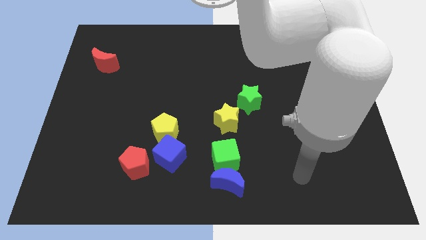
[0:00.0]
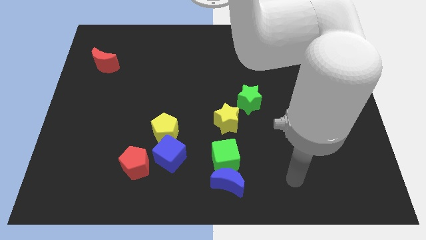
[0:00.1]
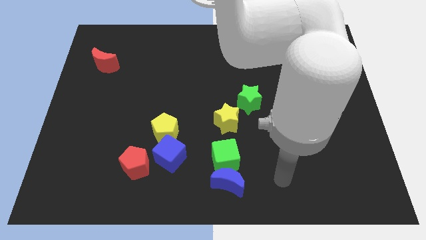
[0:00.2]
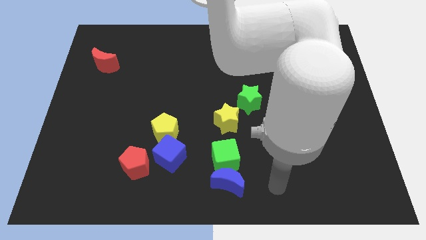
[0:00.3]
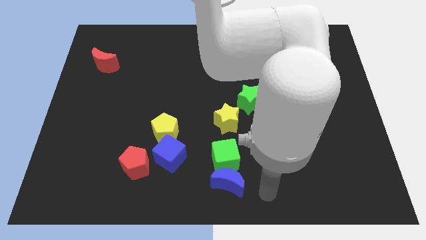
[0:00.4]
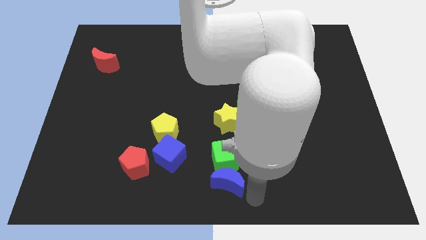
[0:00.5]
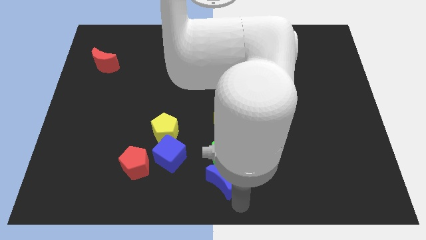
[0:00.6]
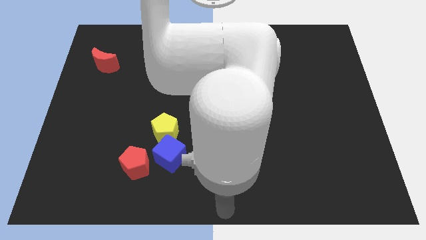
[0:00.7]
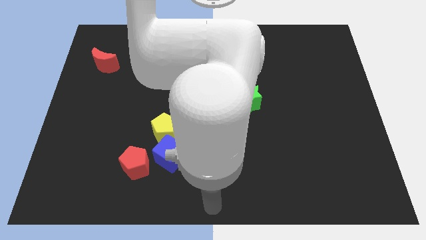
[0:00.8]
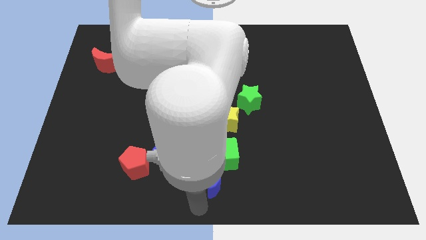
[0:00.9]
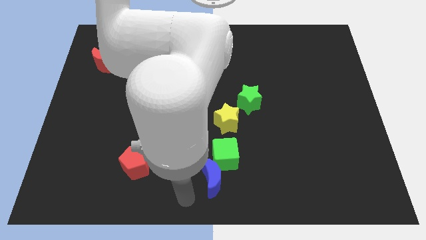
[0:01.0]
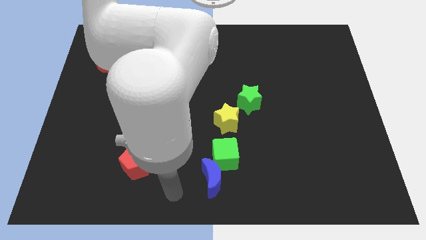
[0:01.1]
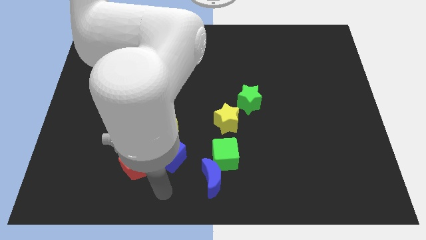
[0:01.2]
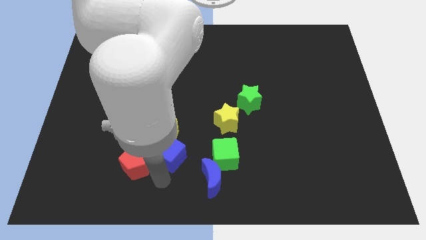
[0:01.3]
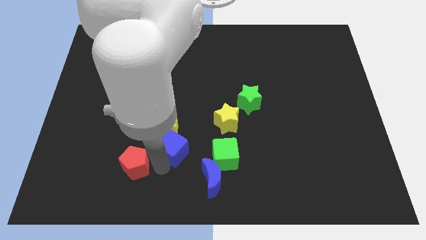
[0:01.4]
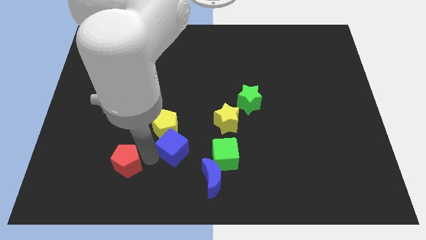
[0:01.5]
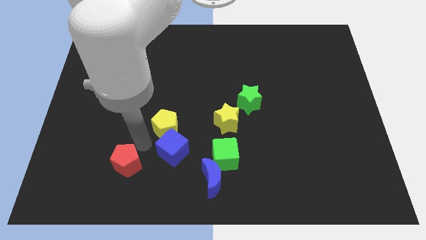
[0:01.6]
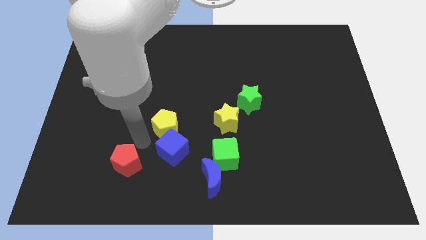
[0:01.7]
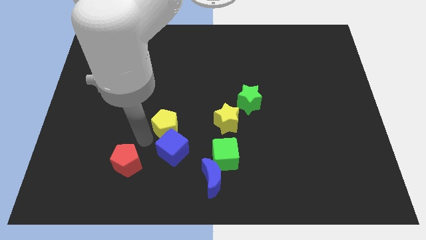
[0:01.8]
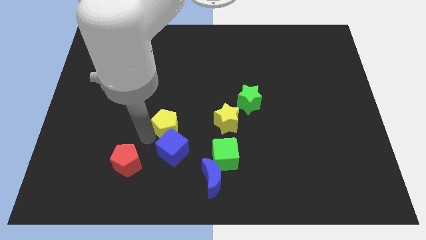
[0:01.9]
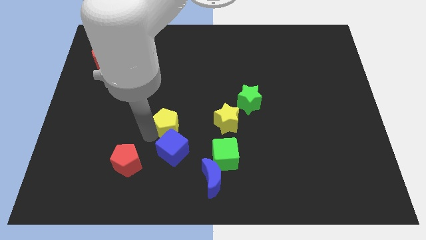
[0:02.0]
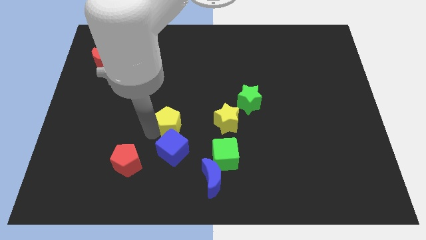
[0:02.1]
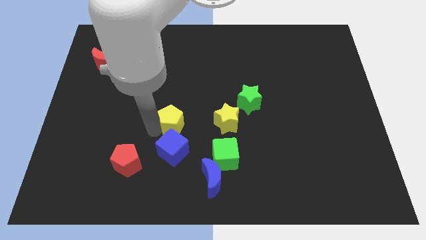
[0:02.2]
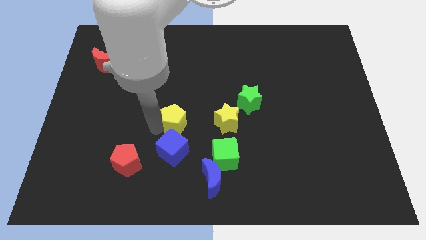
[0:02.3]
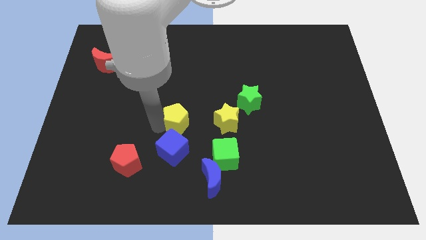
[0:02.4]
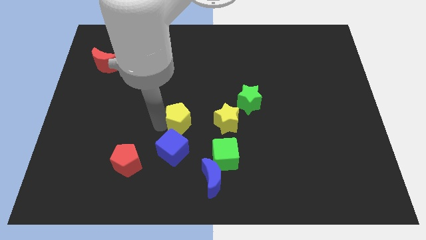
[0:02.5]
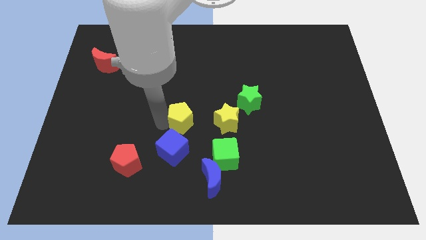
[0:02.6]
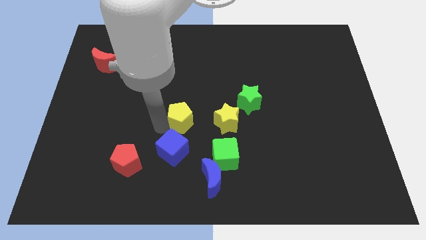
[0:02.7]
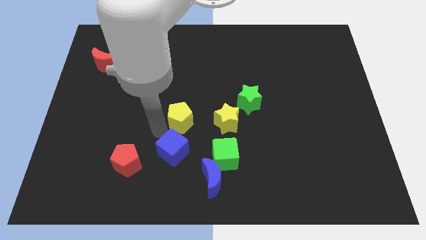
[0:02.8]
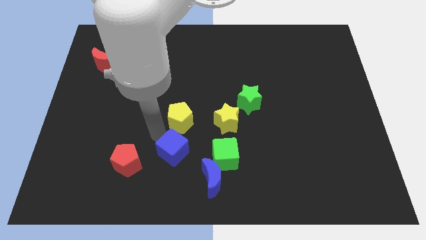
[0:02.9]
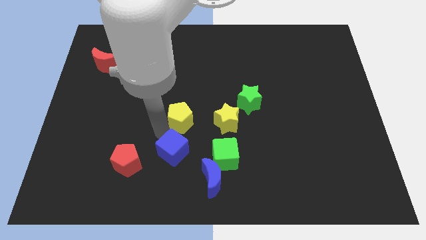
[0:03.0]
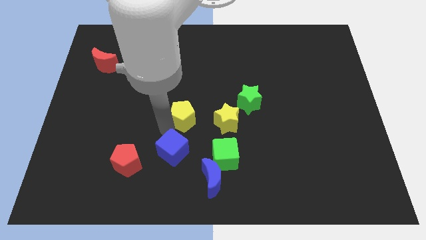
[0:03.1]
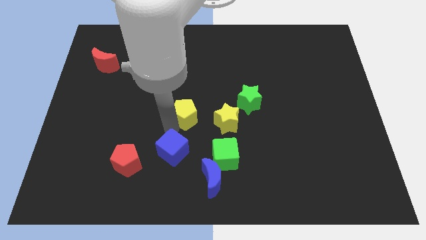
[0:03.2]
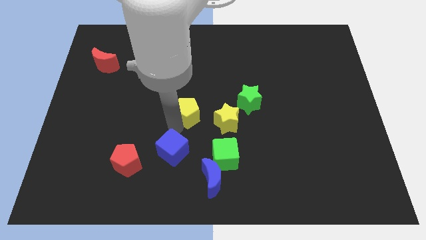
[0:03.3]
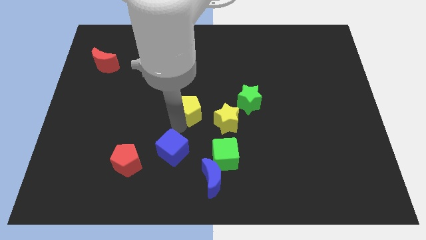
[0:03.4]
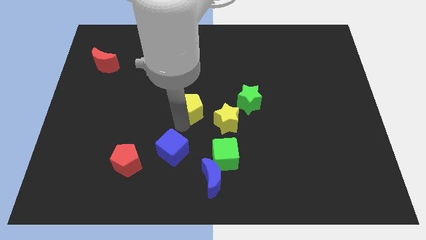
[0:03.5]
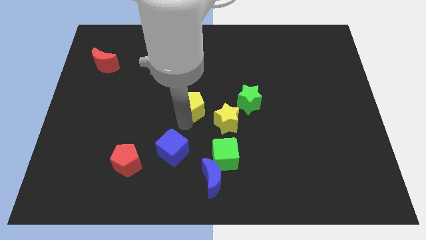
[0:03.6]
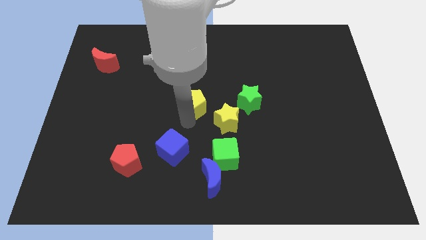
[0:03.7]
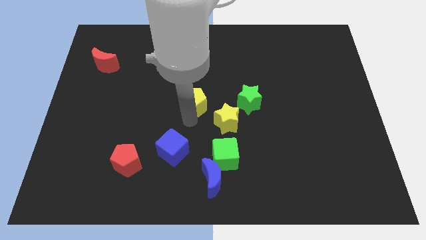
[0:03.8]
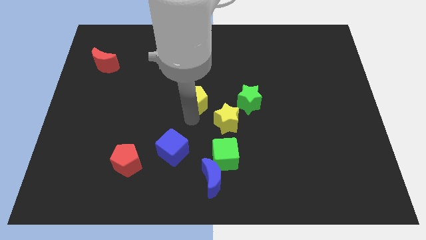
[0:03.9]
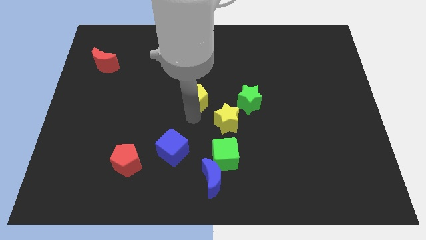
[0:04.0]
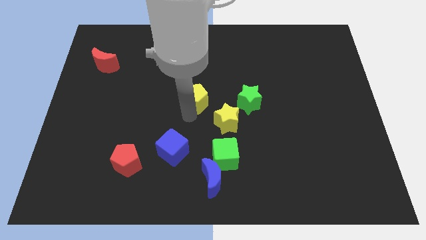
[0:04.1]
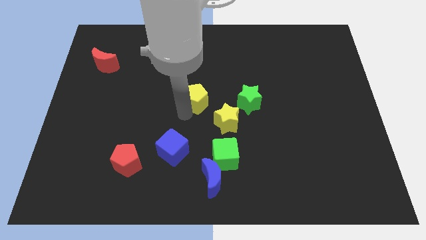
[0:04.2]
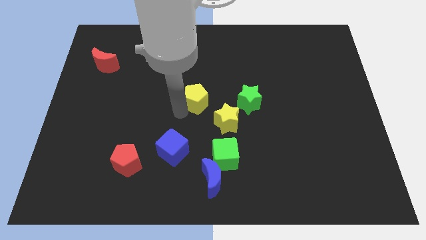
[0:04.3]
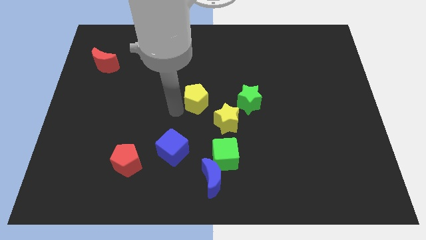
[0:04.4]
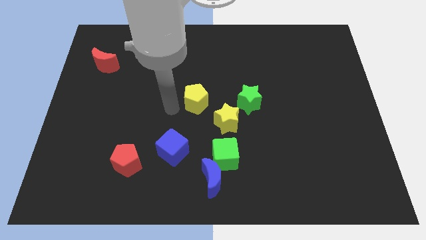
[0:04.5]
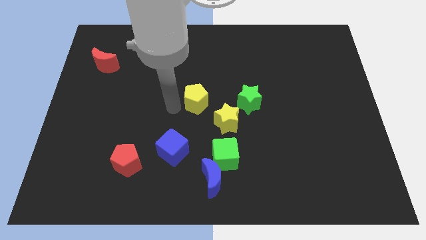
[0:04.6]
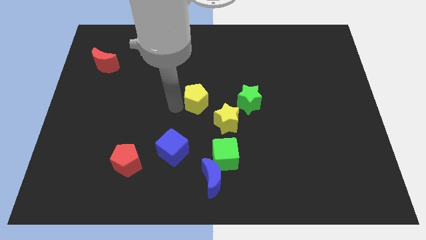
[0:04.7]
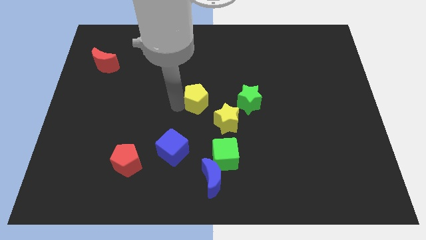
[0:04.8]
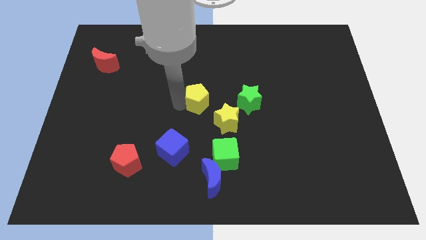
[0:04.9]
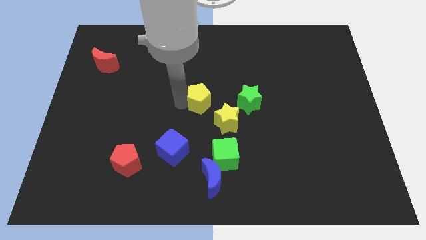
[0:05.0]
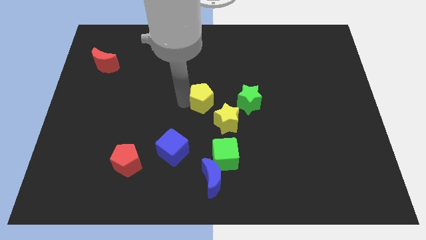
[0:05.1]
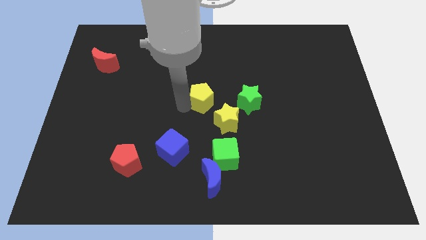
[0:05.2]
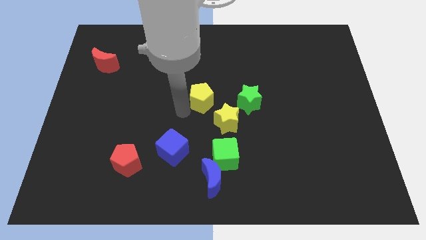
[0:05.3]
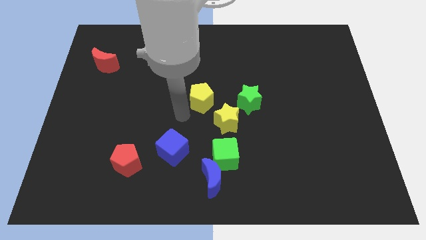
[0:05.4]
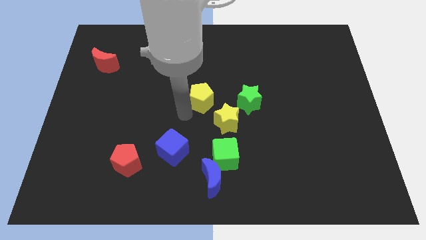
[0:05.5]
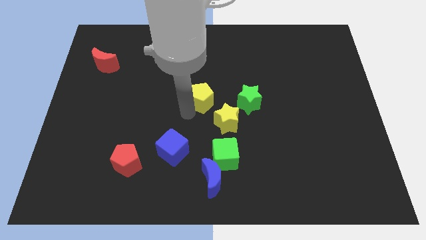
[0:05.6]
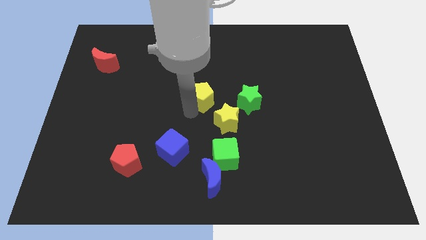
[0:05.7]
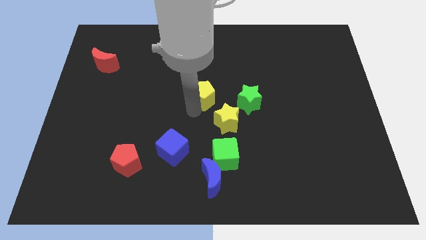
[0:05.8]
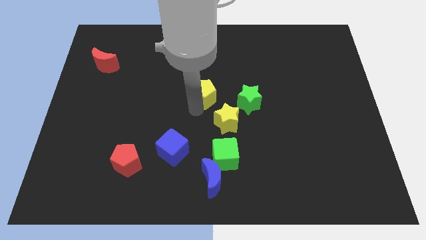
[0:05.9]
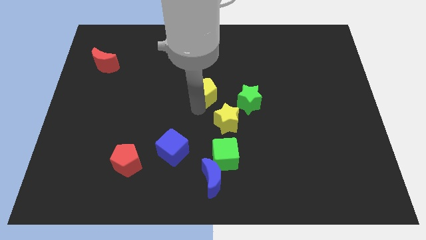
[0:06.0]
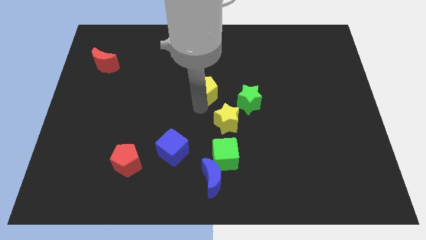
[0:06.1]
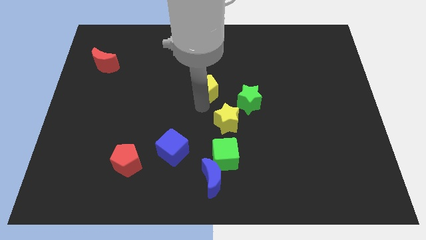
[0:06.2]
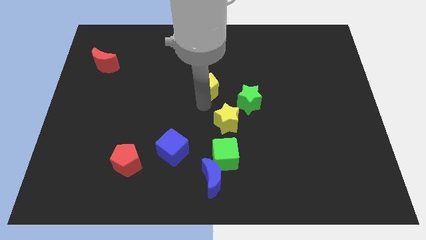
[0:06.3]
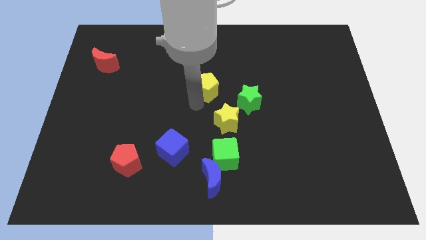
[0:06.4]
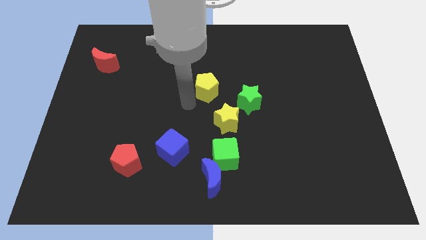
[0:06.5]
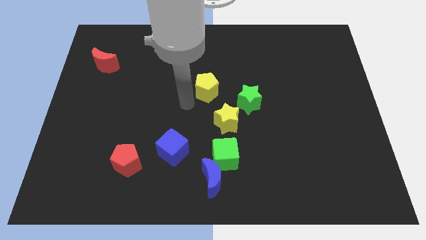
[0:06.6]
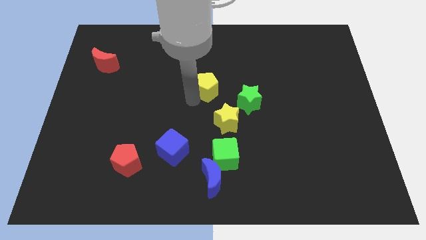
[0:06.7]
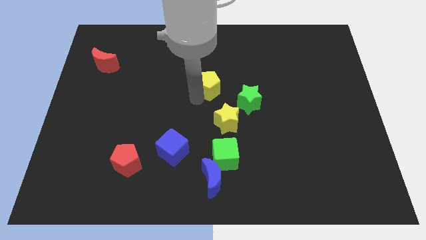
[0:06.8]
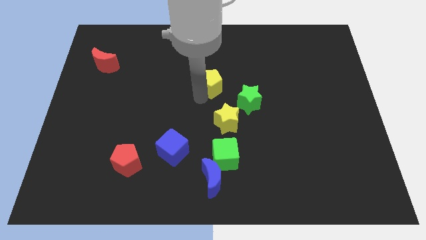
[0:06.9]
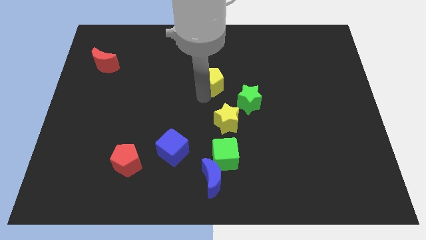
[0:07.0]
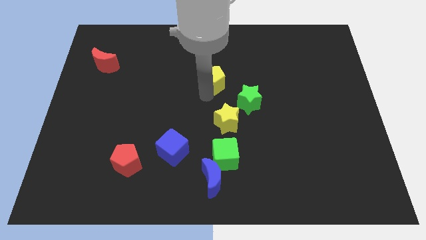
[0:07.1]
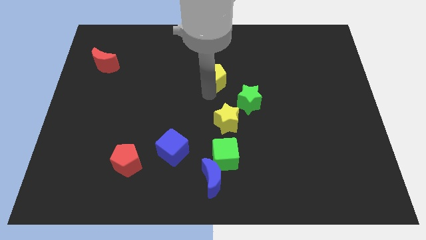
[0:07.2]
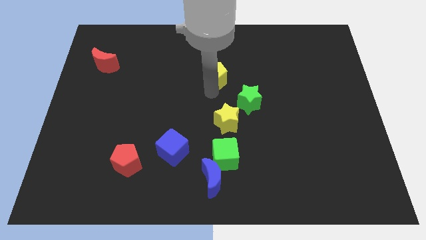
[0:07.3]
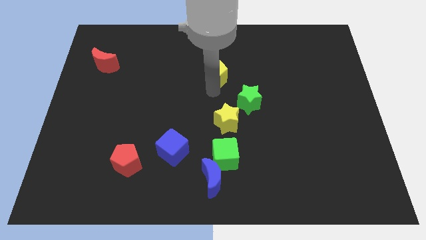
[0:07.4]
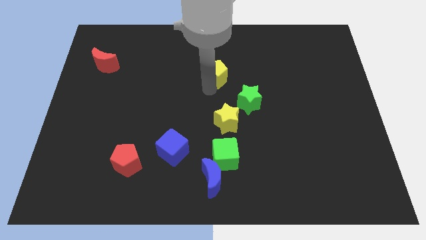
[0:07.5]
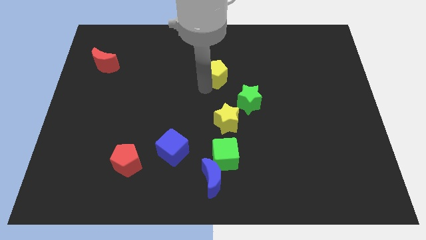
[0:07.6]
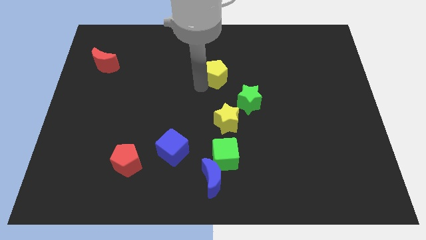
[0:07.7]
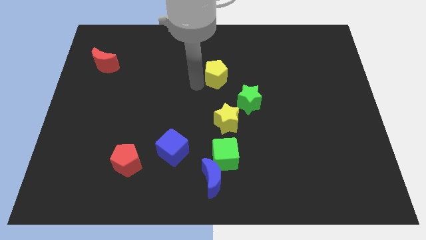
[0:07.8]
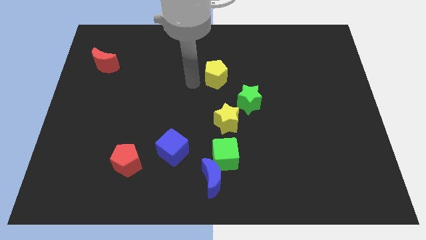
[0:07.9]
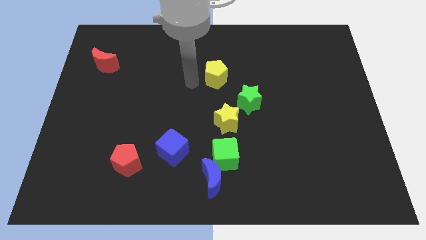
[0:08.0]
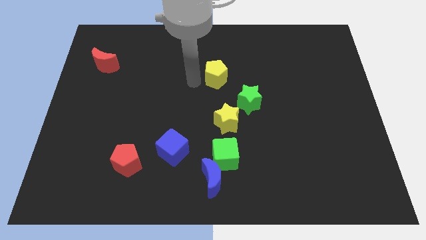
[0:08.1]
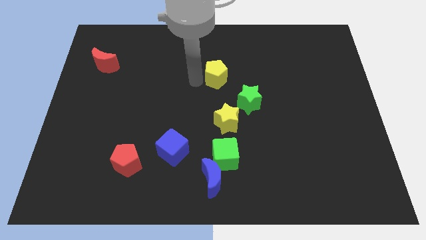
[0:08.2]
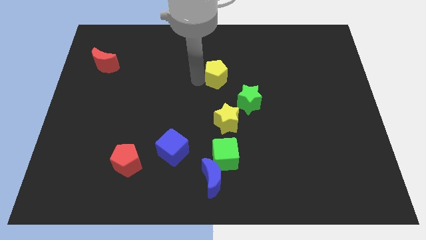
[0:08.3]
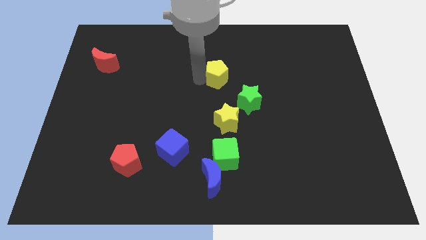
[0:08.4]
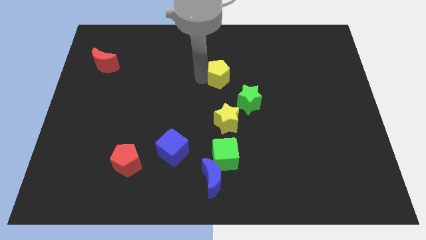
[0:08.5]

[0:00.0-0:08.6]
push the yellow pentagon up and to the right
